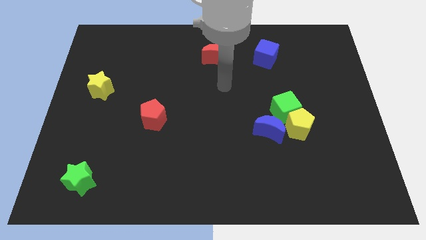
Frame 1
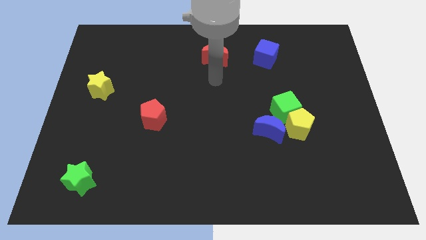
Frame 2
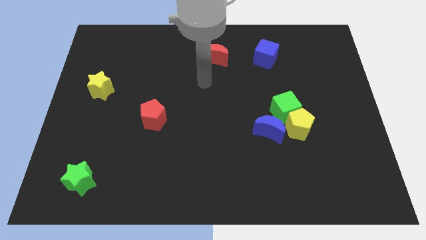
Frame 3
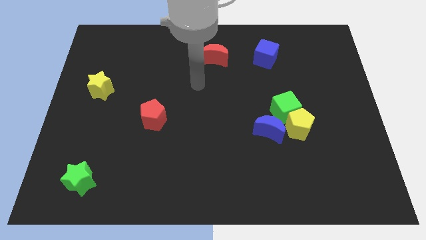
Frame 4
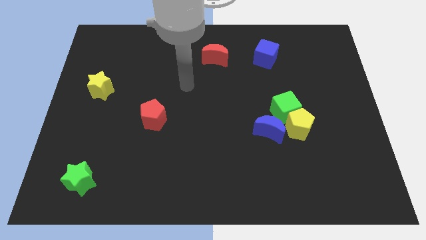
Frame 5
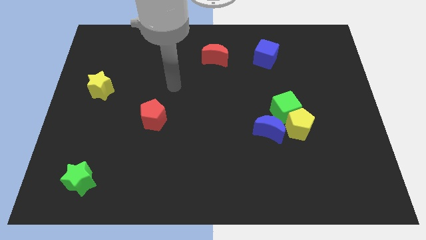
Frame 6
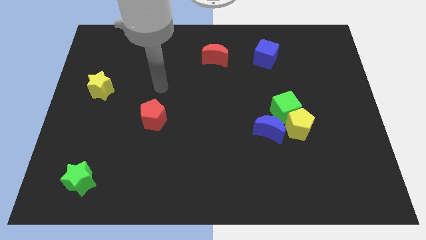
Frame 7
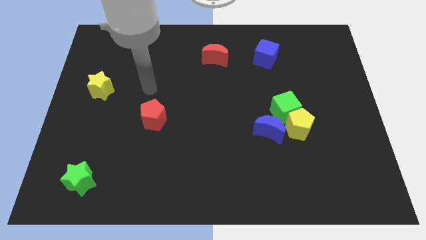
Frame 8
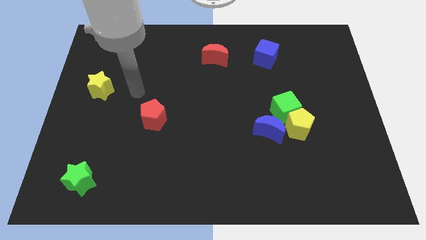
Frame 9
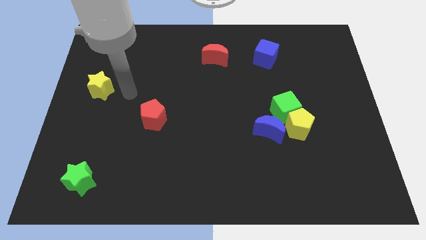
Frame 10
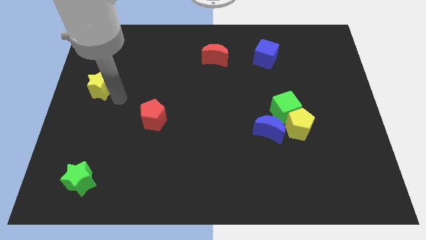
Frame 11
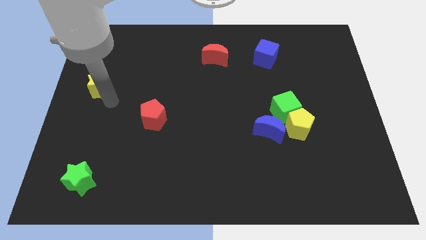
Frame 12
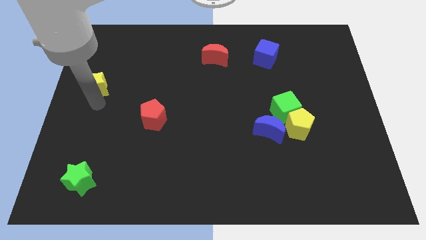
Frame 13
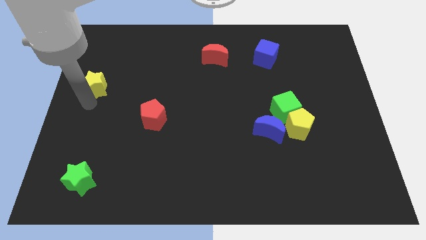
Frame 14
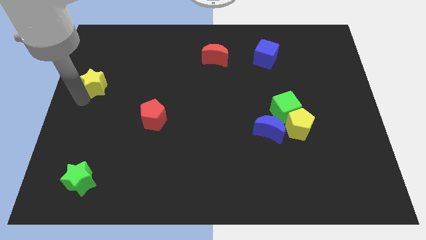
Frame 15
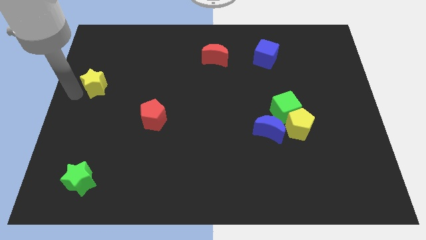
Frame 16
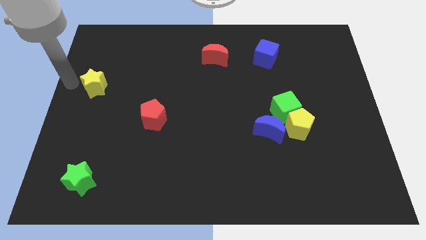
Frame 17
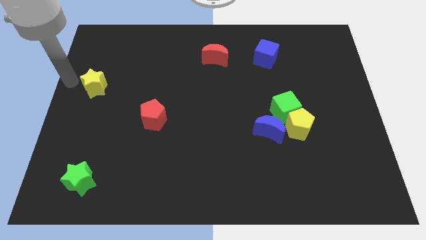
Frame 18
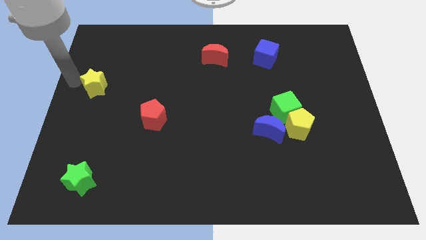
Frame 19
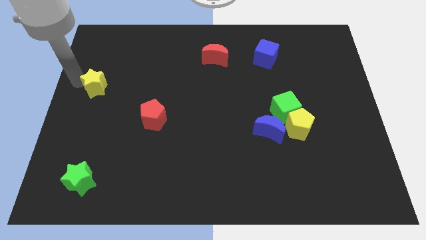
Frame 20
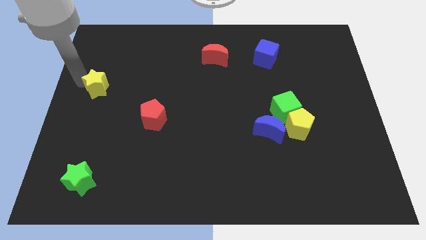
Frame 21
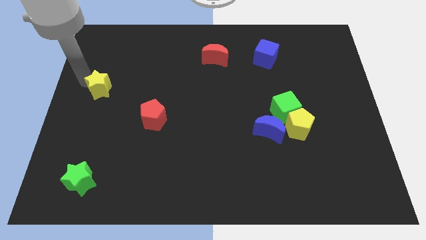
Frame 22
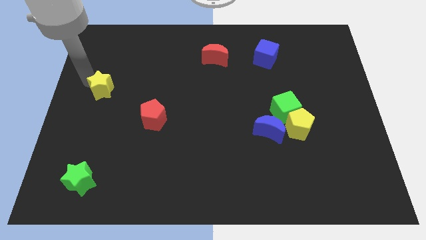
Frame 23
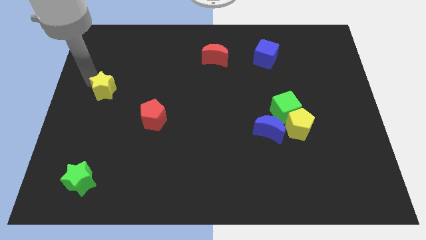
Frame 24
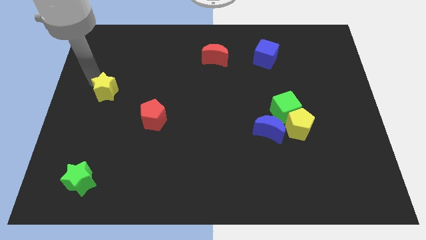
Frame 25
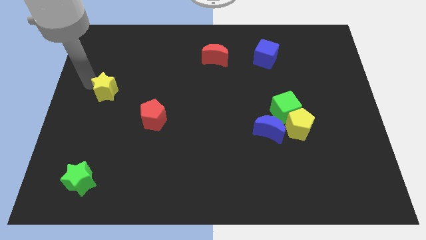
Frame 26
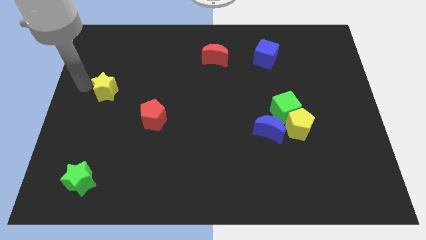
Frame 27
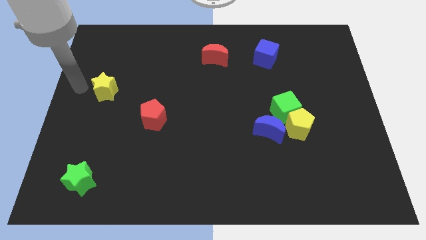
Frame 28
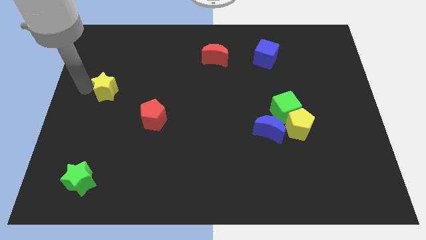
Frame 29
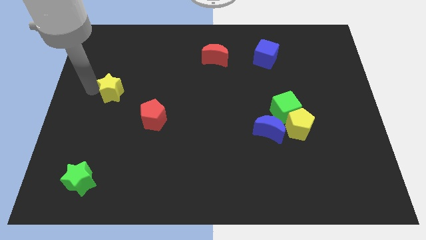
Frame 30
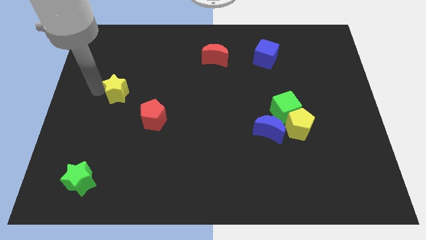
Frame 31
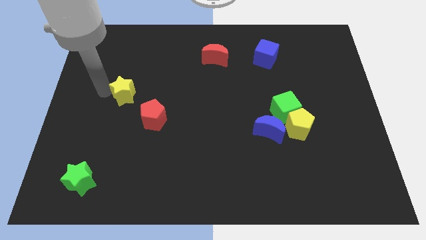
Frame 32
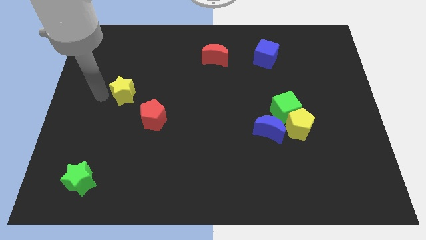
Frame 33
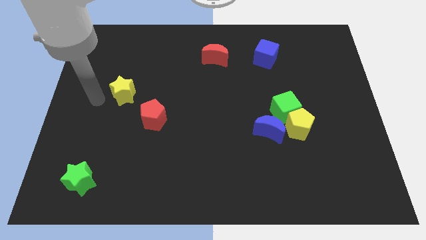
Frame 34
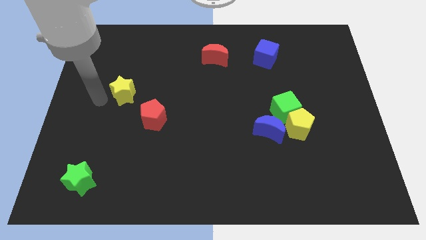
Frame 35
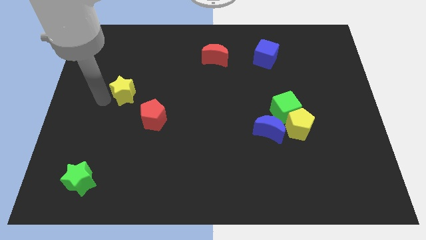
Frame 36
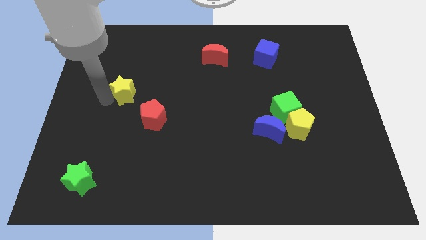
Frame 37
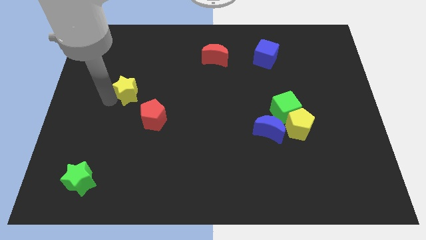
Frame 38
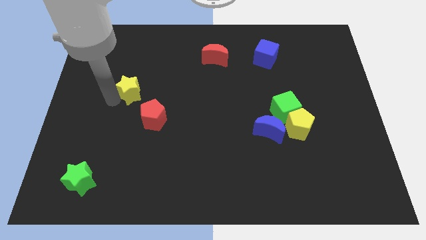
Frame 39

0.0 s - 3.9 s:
slightly push the yellow star to the right

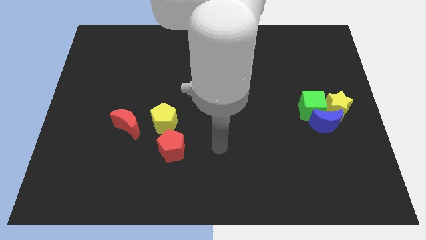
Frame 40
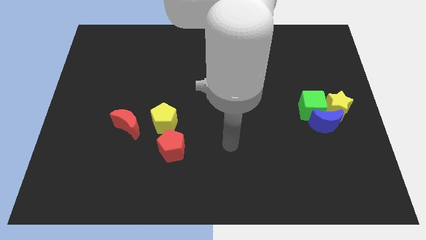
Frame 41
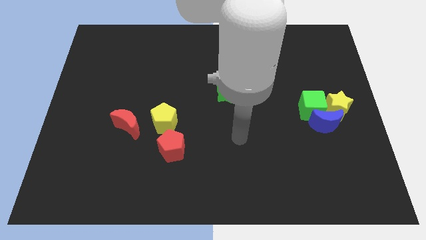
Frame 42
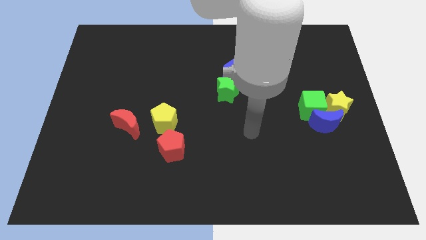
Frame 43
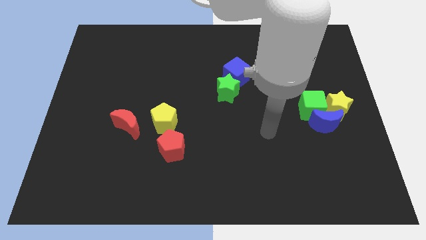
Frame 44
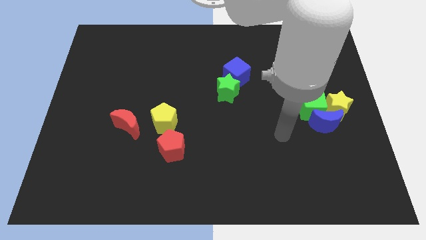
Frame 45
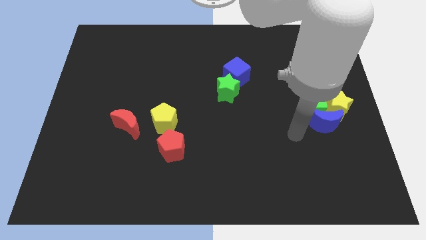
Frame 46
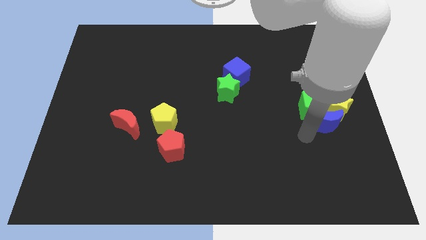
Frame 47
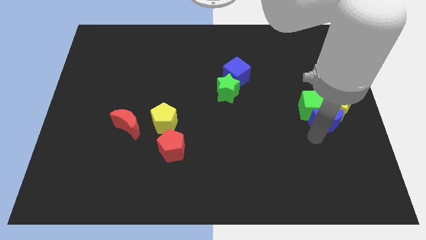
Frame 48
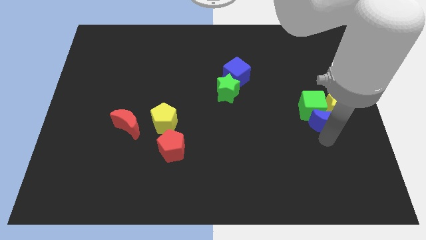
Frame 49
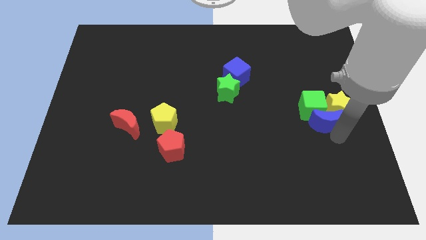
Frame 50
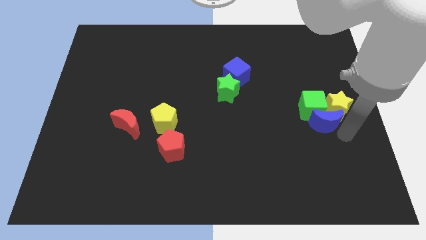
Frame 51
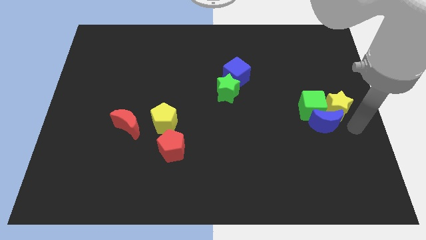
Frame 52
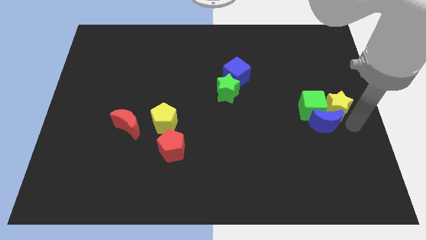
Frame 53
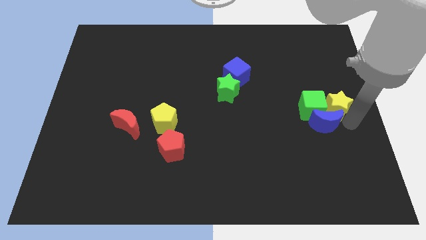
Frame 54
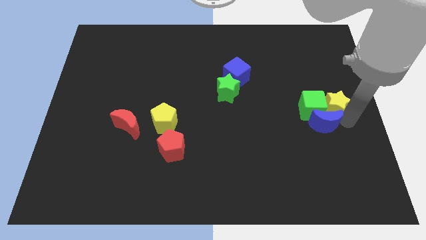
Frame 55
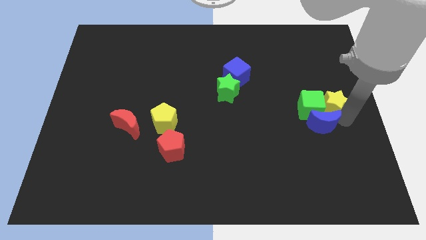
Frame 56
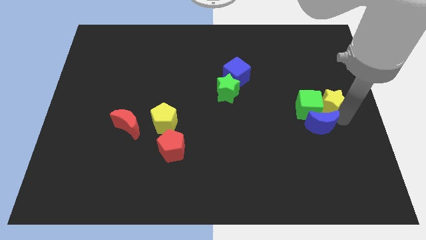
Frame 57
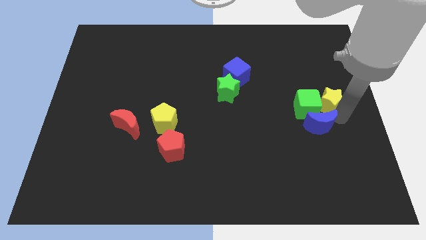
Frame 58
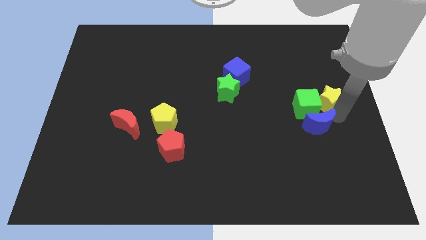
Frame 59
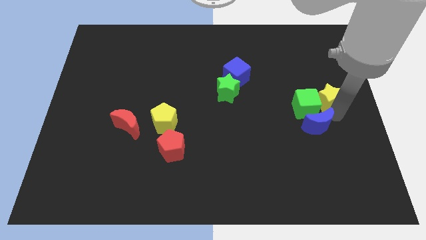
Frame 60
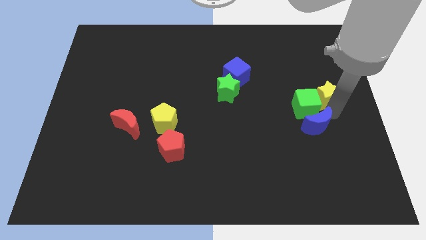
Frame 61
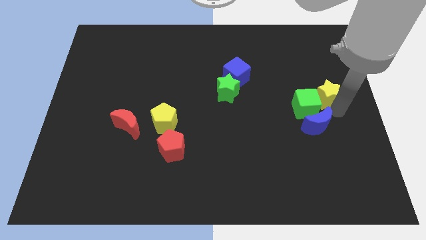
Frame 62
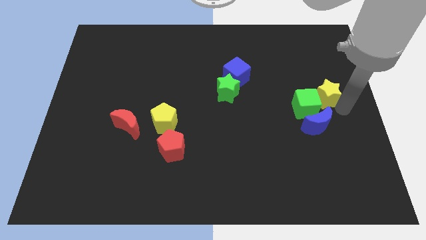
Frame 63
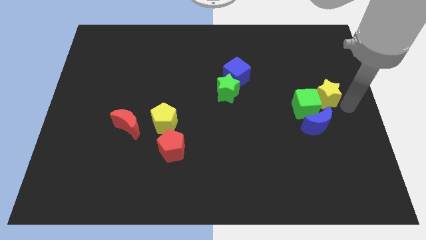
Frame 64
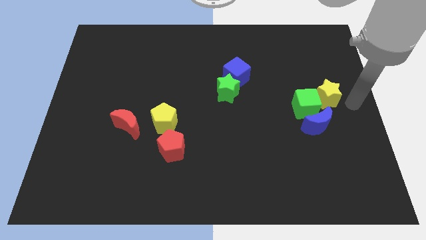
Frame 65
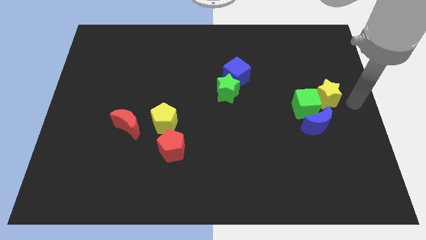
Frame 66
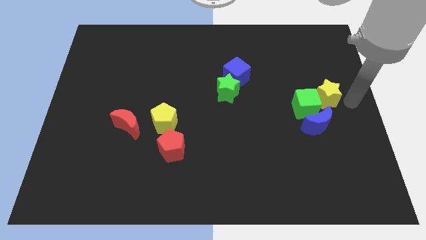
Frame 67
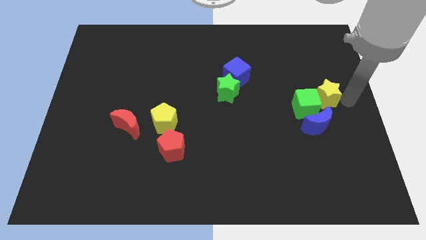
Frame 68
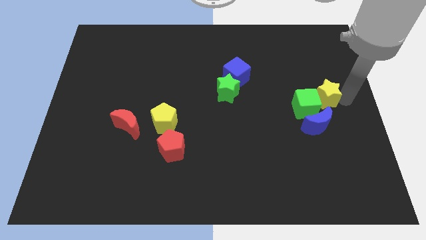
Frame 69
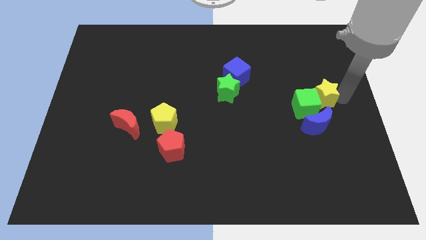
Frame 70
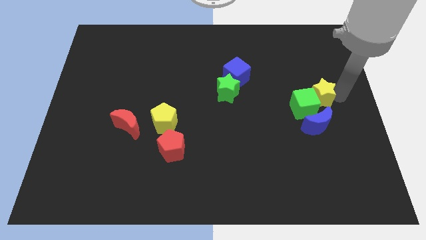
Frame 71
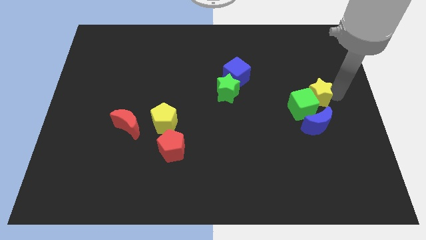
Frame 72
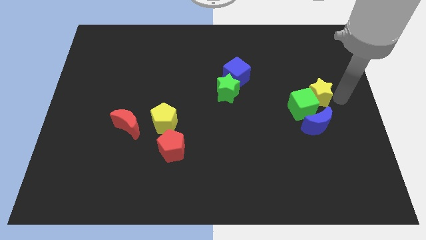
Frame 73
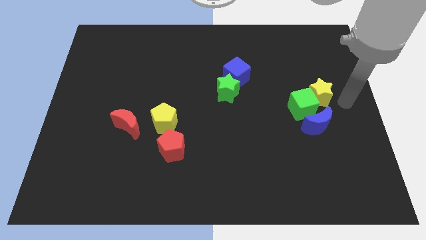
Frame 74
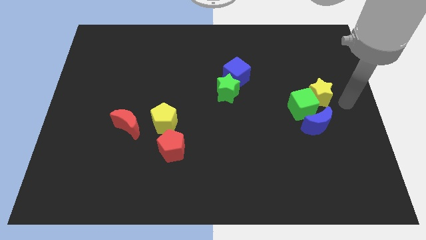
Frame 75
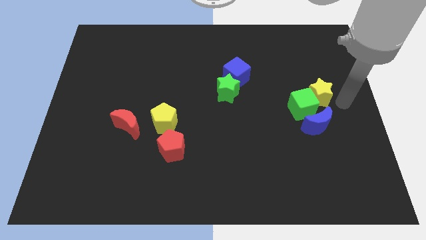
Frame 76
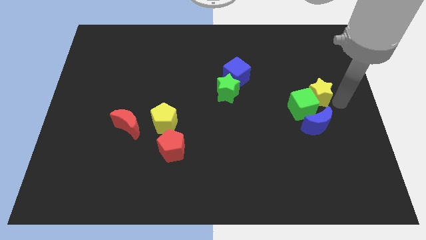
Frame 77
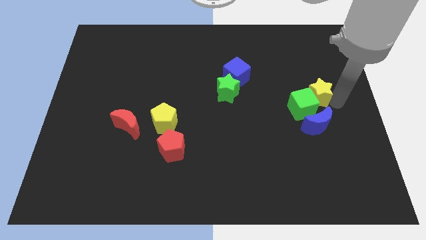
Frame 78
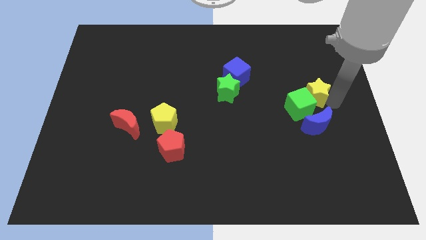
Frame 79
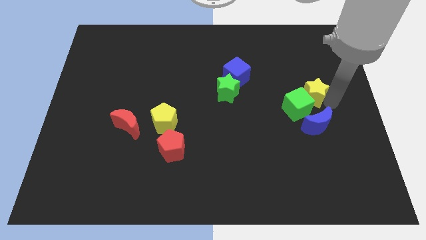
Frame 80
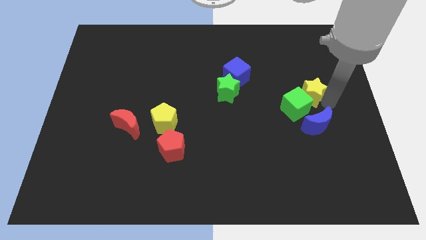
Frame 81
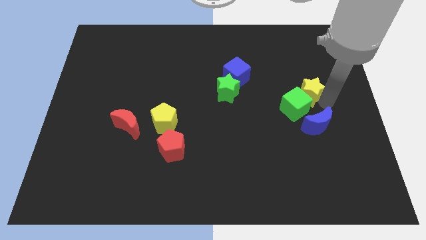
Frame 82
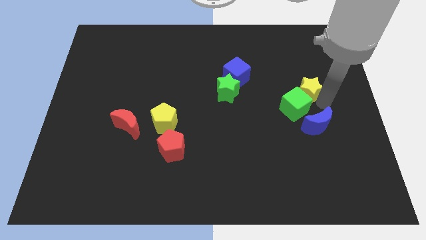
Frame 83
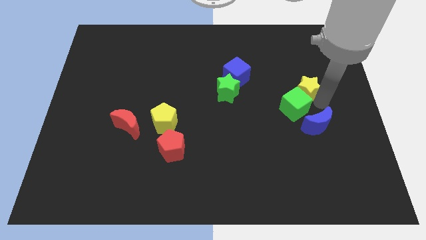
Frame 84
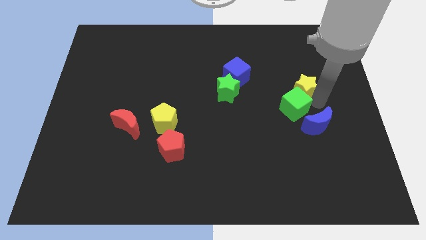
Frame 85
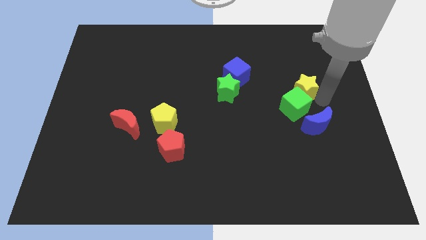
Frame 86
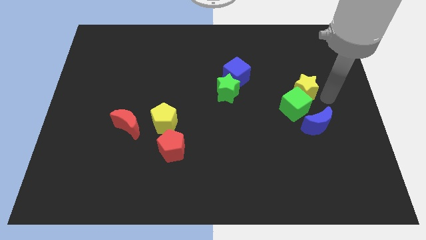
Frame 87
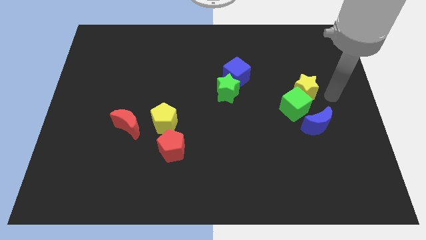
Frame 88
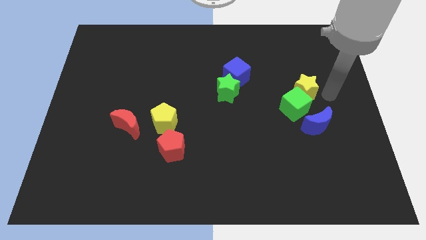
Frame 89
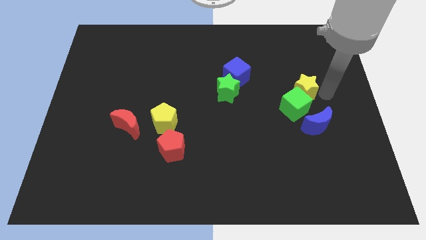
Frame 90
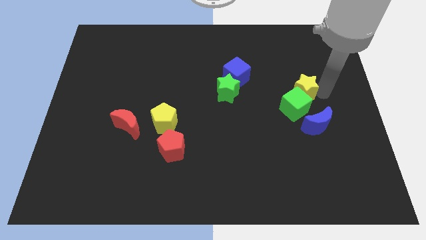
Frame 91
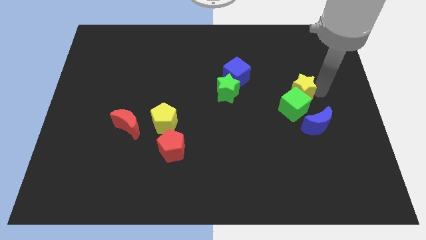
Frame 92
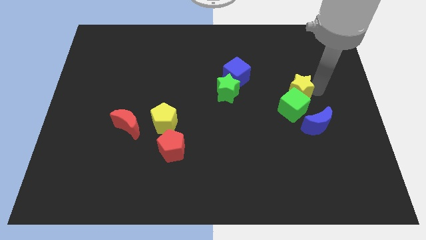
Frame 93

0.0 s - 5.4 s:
push the yellow star to the left somewhat
